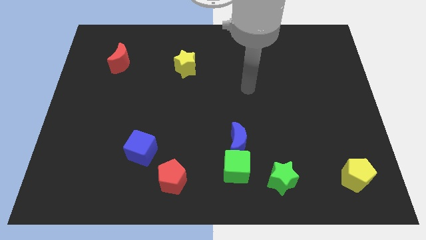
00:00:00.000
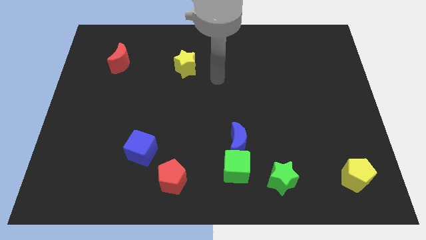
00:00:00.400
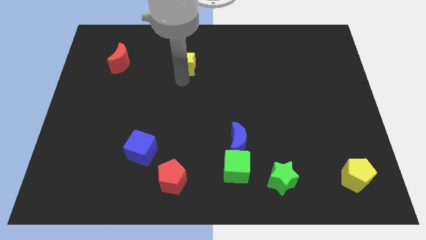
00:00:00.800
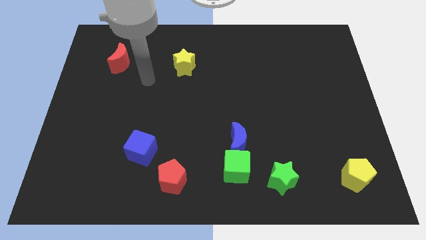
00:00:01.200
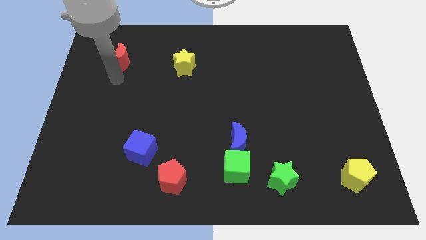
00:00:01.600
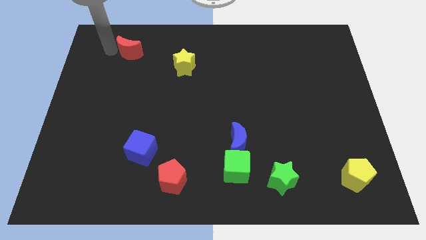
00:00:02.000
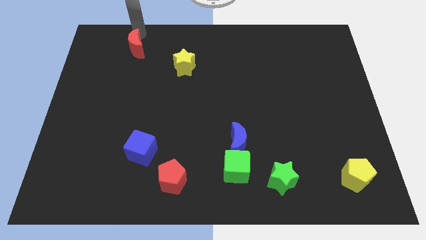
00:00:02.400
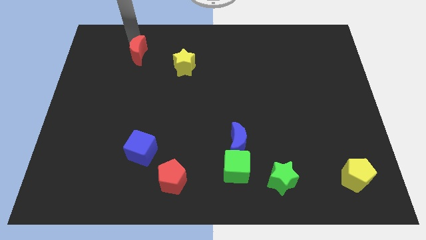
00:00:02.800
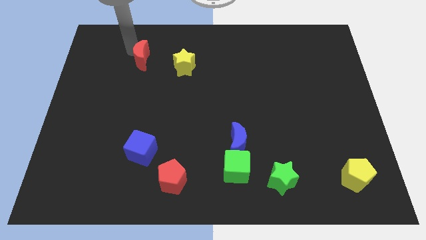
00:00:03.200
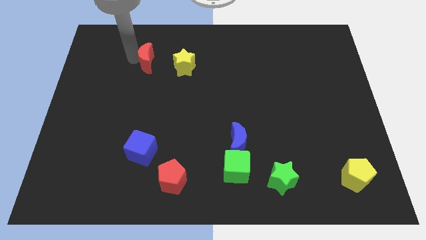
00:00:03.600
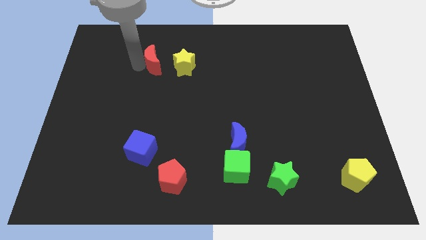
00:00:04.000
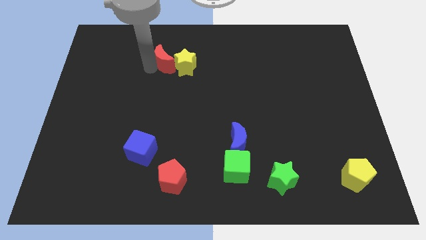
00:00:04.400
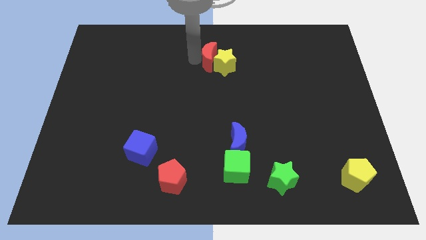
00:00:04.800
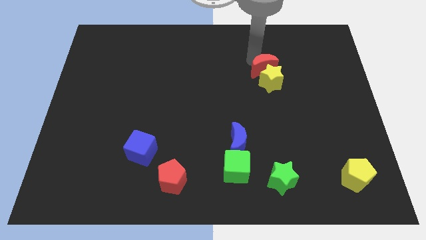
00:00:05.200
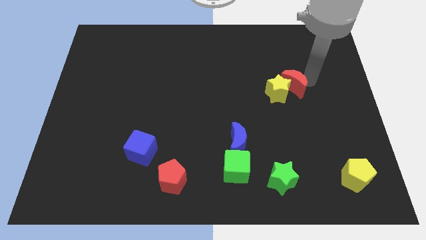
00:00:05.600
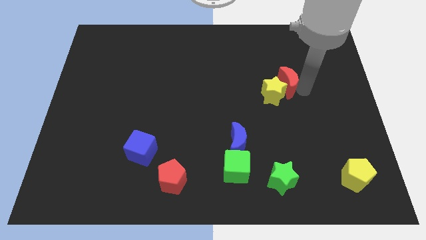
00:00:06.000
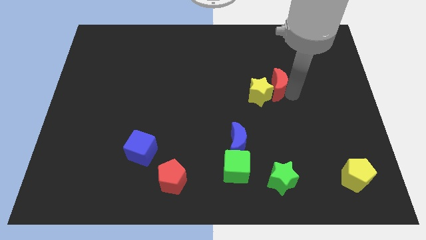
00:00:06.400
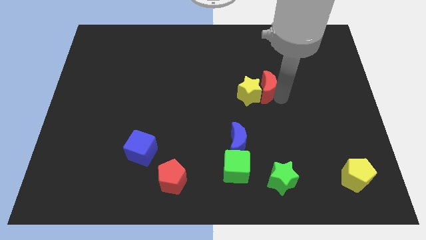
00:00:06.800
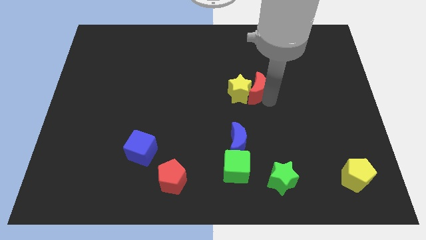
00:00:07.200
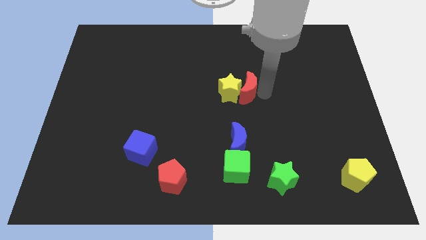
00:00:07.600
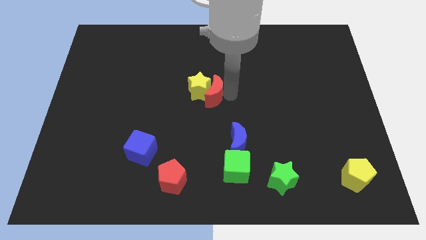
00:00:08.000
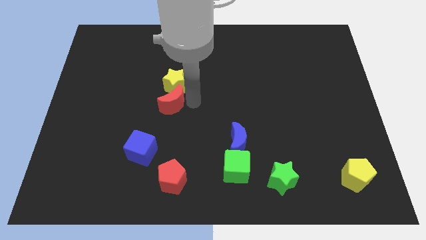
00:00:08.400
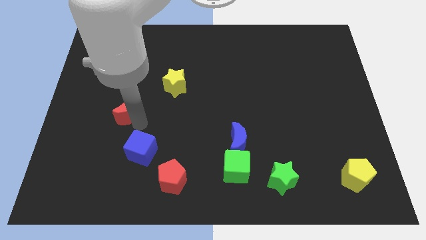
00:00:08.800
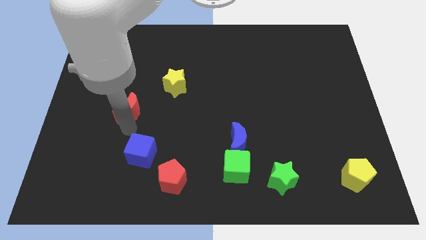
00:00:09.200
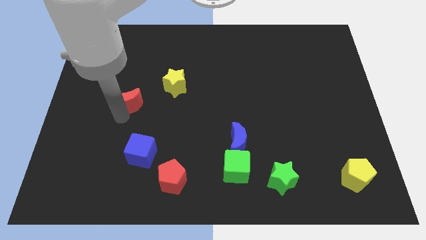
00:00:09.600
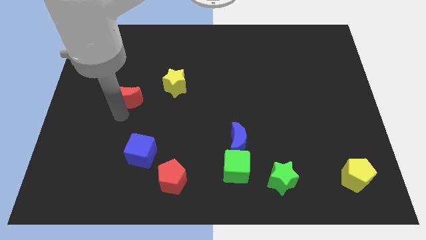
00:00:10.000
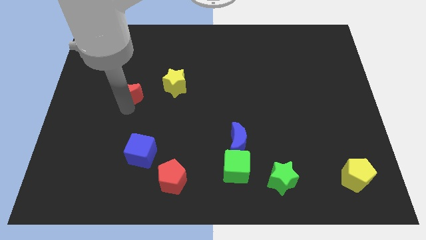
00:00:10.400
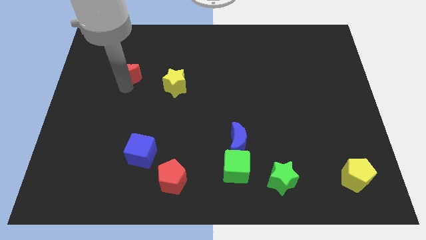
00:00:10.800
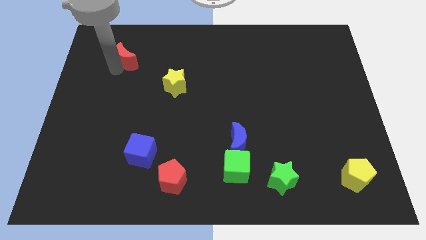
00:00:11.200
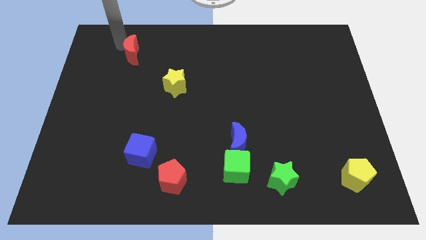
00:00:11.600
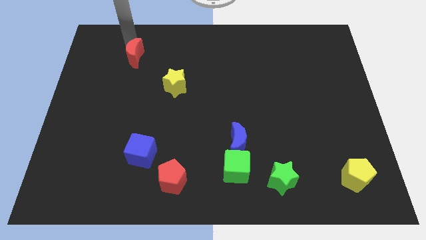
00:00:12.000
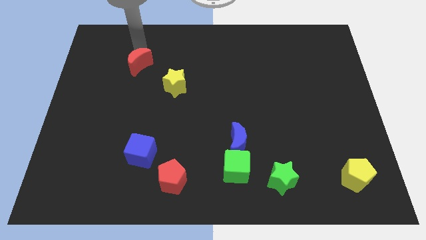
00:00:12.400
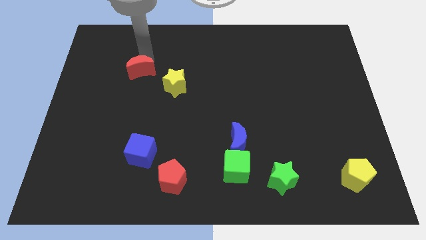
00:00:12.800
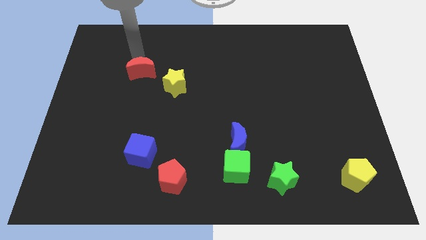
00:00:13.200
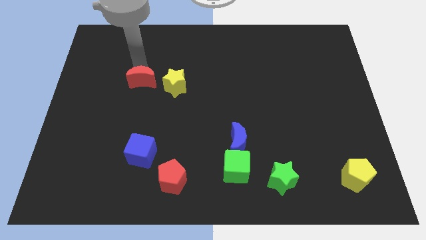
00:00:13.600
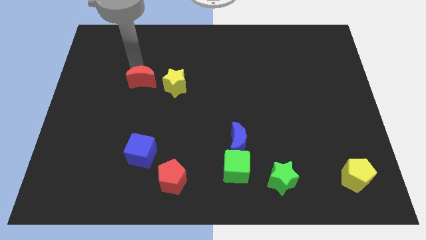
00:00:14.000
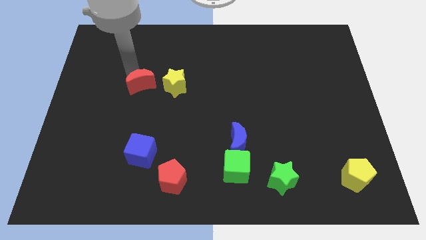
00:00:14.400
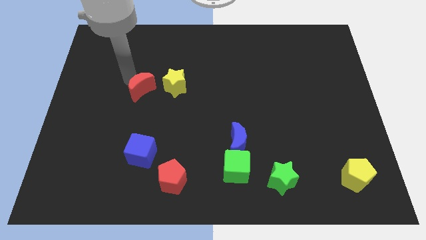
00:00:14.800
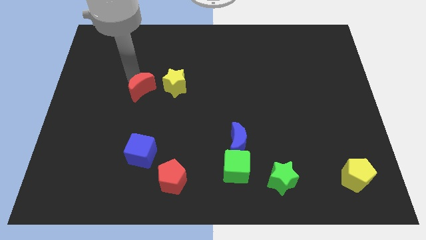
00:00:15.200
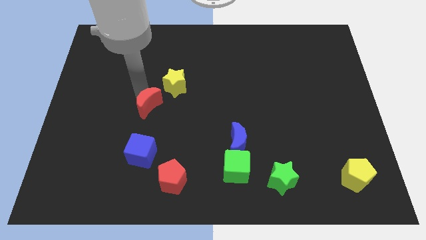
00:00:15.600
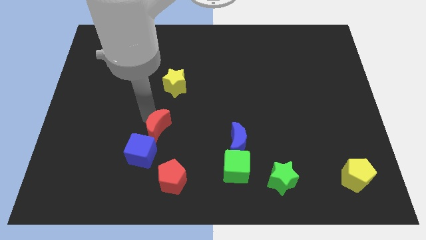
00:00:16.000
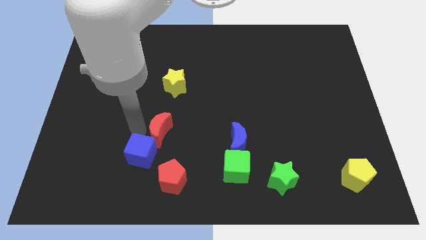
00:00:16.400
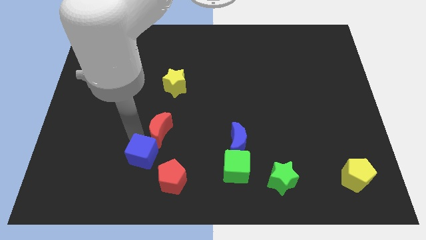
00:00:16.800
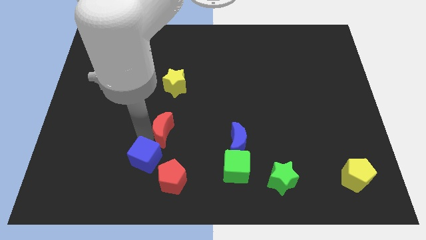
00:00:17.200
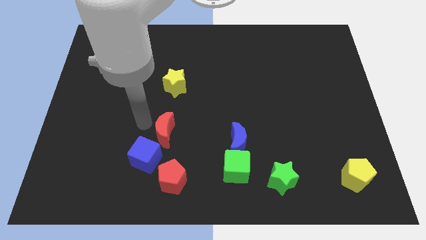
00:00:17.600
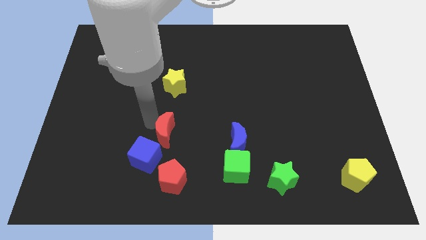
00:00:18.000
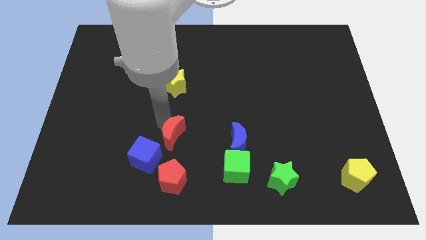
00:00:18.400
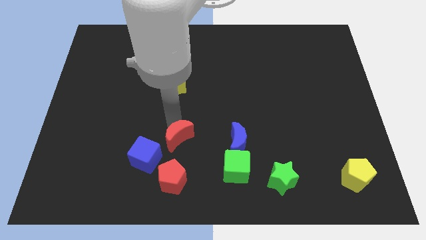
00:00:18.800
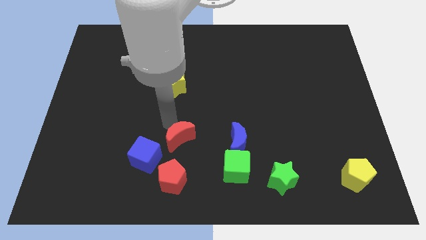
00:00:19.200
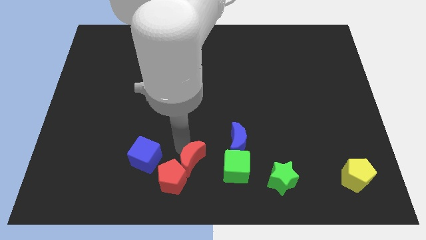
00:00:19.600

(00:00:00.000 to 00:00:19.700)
push the red moon to the bottom side

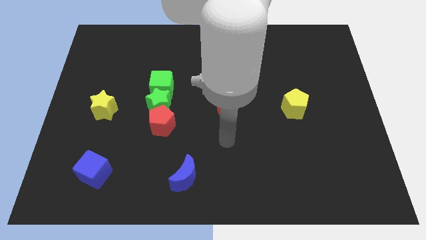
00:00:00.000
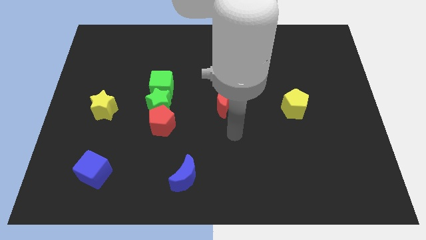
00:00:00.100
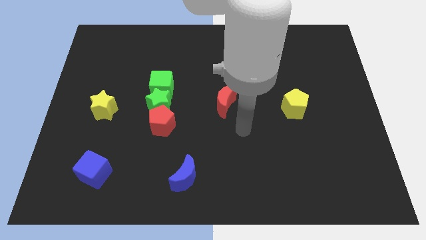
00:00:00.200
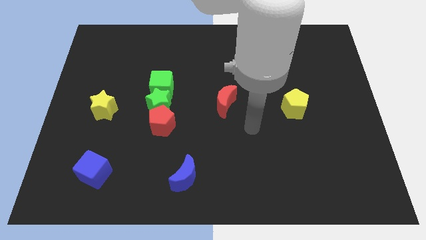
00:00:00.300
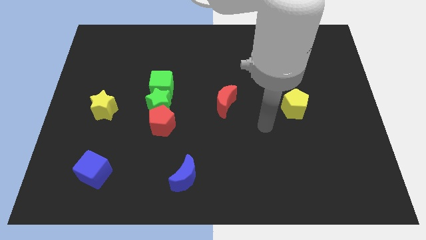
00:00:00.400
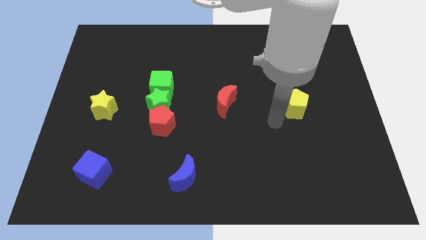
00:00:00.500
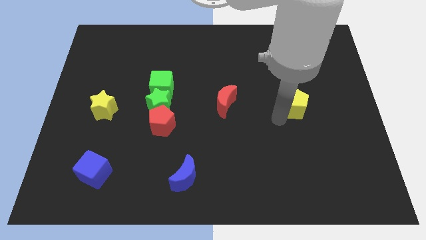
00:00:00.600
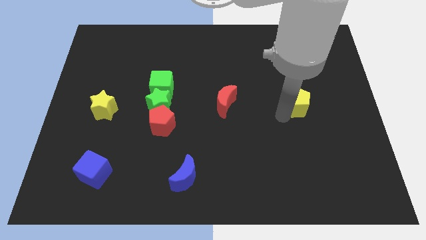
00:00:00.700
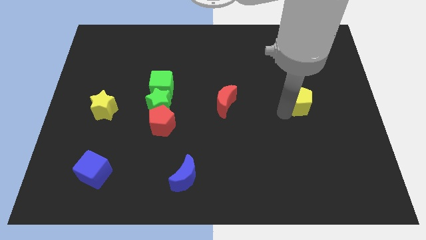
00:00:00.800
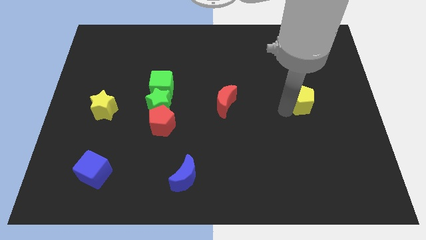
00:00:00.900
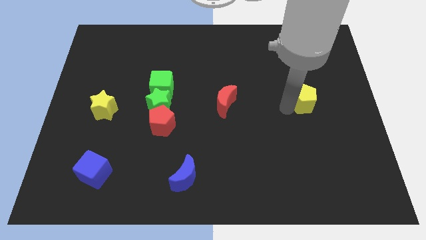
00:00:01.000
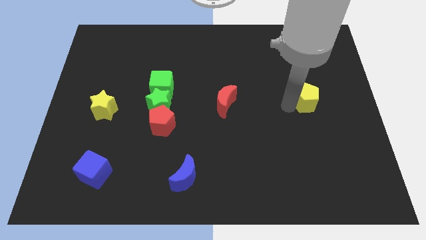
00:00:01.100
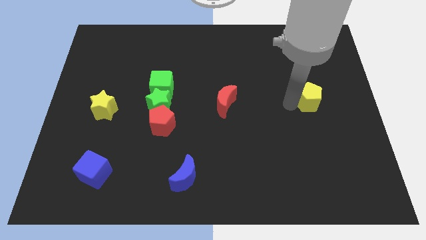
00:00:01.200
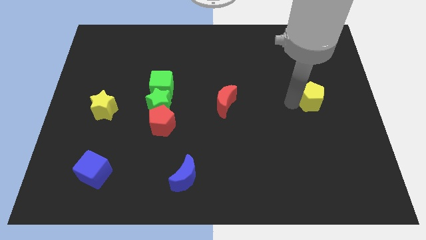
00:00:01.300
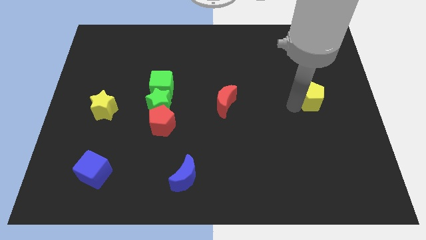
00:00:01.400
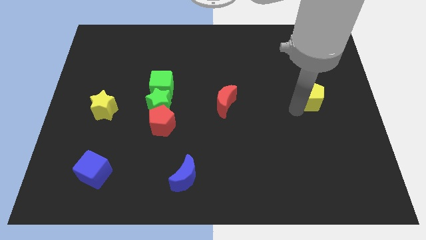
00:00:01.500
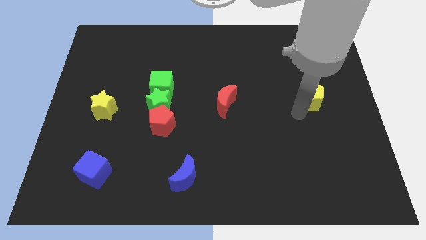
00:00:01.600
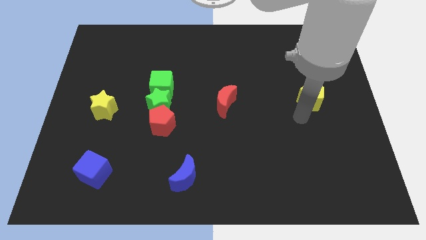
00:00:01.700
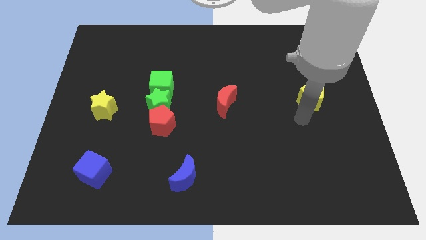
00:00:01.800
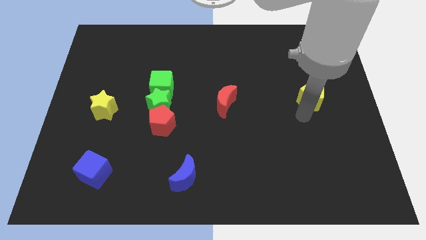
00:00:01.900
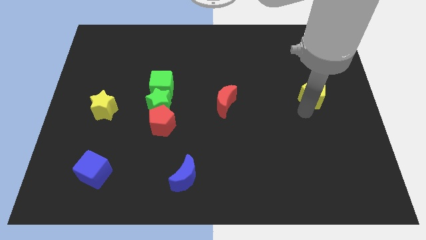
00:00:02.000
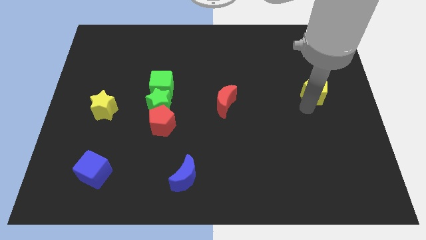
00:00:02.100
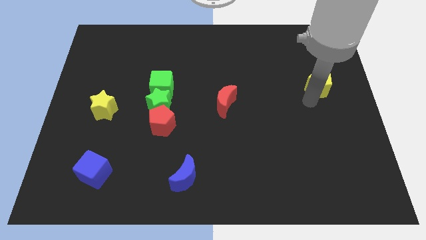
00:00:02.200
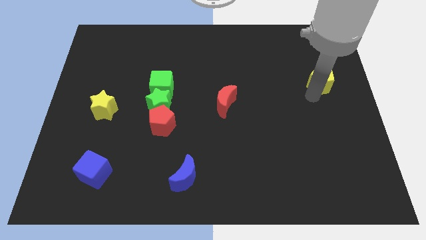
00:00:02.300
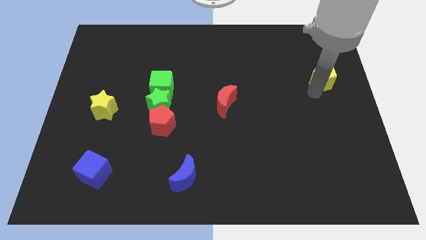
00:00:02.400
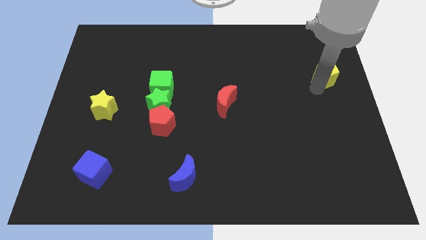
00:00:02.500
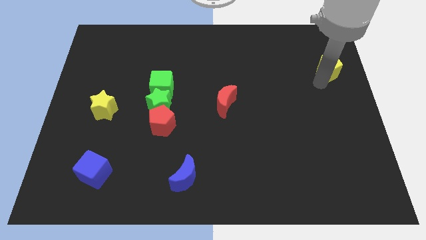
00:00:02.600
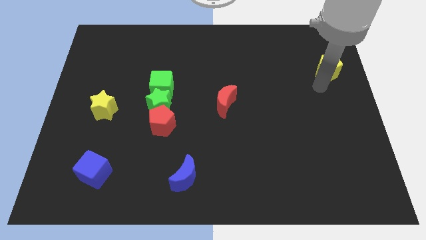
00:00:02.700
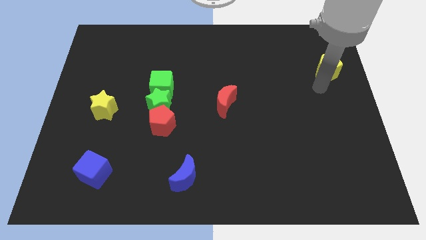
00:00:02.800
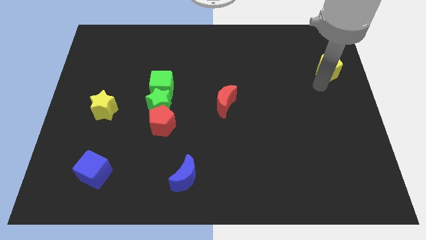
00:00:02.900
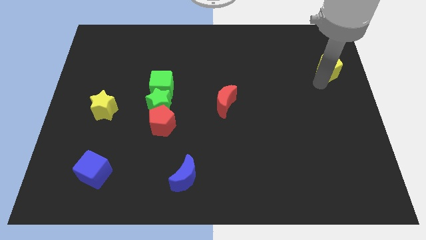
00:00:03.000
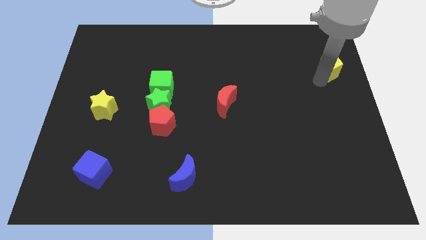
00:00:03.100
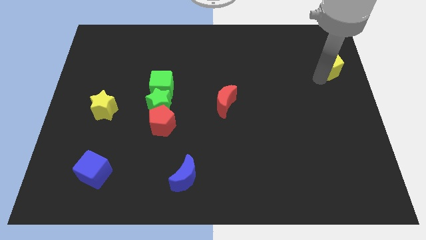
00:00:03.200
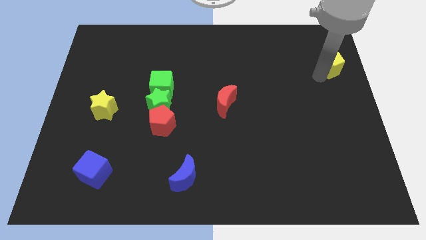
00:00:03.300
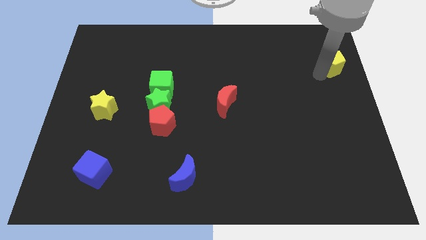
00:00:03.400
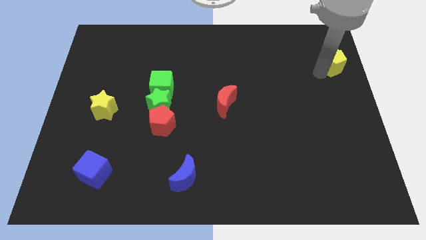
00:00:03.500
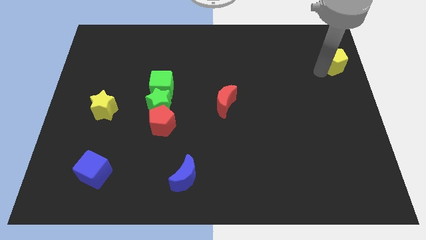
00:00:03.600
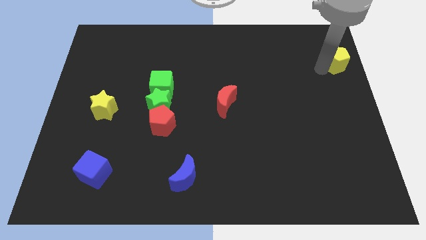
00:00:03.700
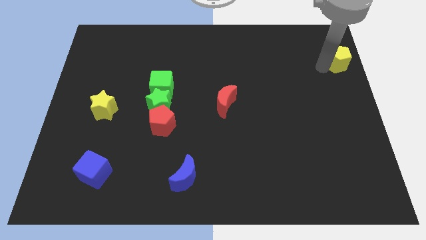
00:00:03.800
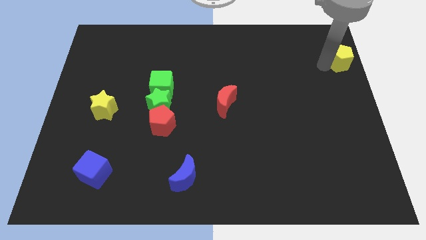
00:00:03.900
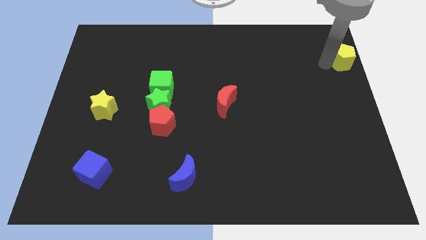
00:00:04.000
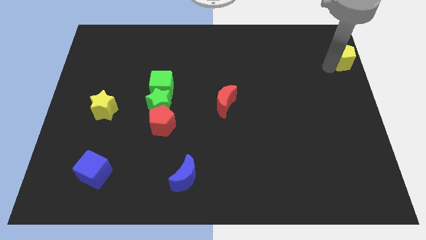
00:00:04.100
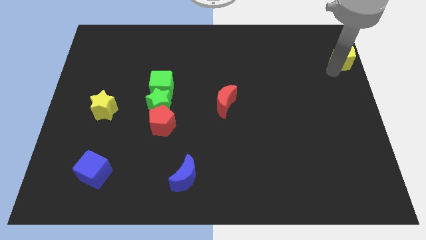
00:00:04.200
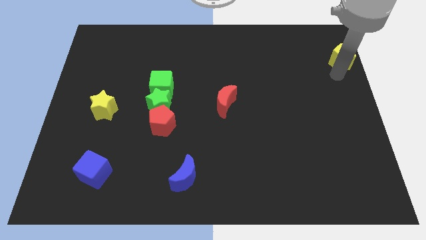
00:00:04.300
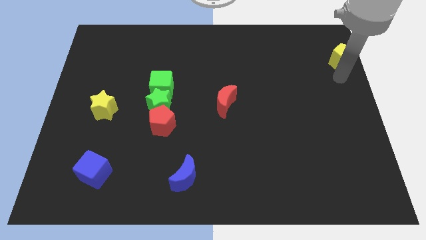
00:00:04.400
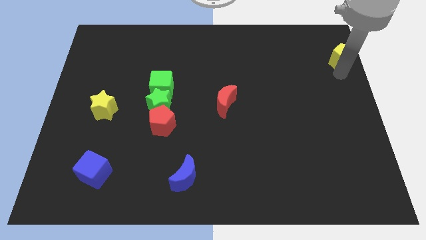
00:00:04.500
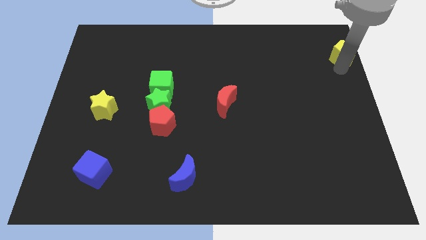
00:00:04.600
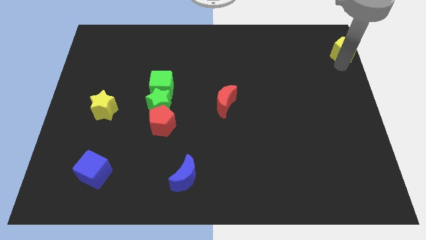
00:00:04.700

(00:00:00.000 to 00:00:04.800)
move the yellow pentagon to the top right corner
